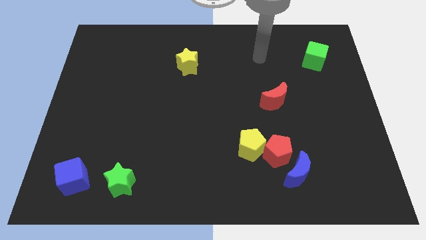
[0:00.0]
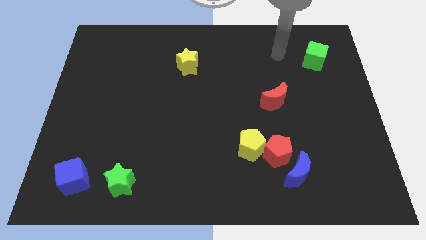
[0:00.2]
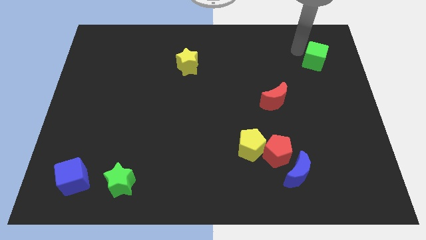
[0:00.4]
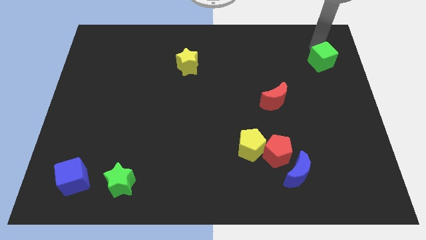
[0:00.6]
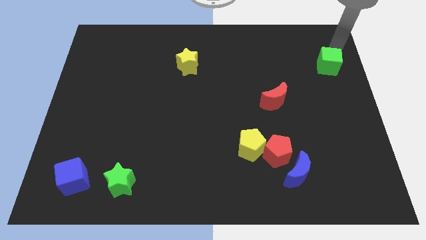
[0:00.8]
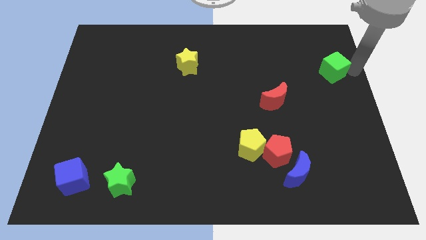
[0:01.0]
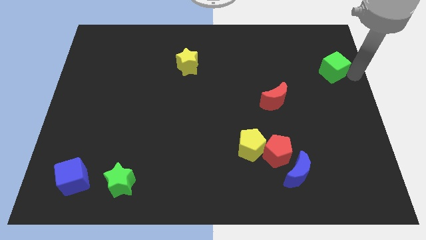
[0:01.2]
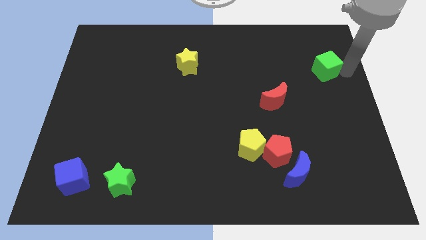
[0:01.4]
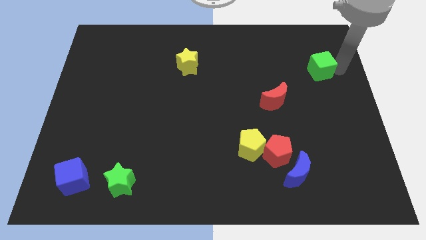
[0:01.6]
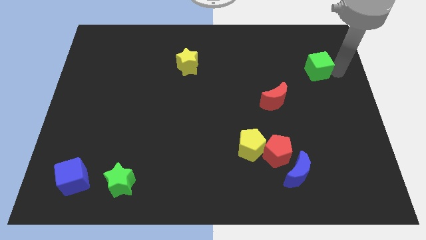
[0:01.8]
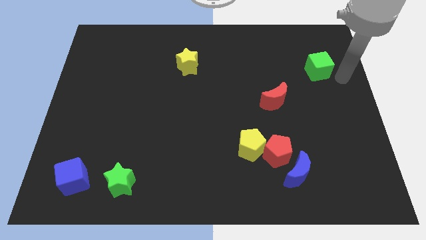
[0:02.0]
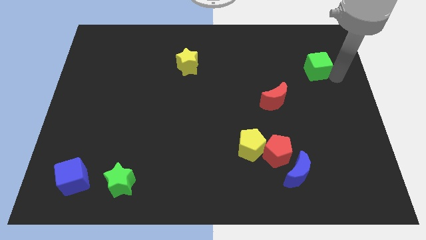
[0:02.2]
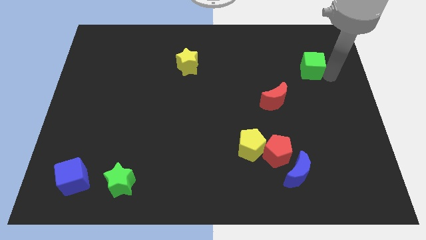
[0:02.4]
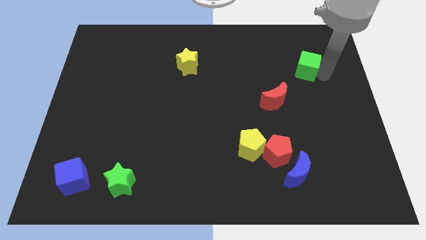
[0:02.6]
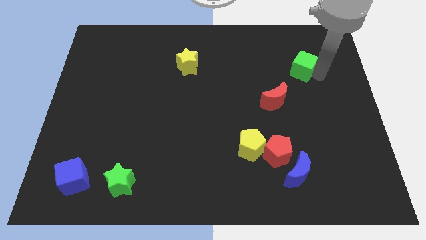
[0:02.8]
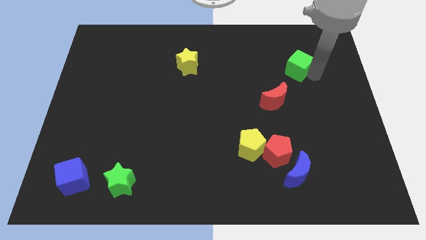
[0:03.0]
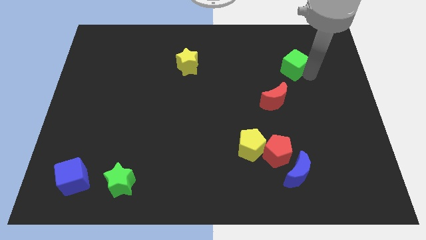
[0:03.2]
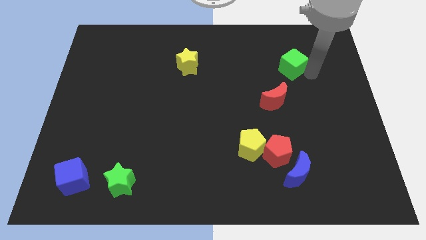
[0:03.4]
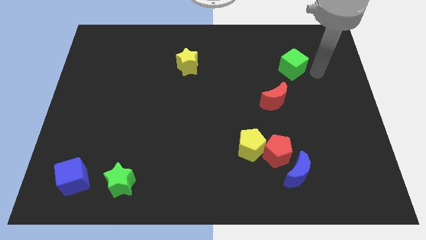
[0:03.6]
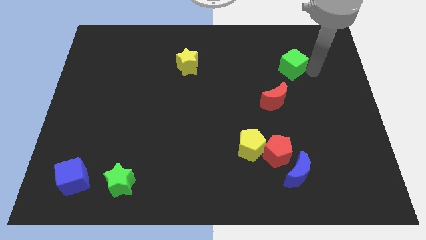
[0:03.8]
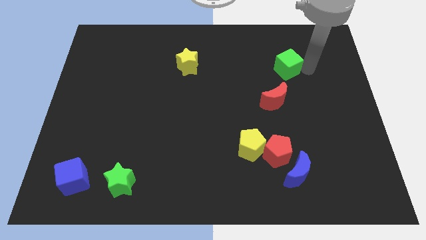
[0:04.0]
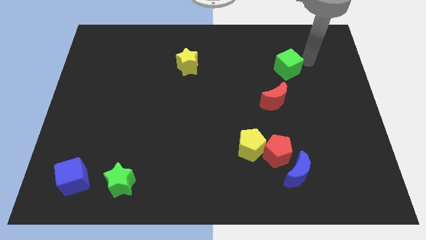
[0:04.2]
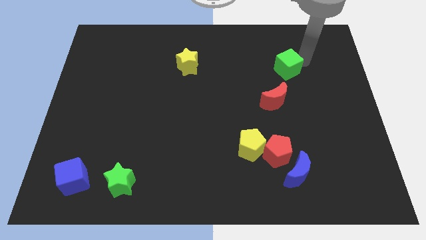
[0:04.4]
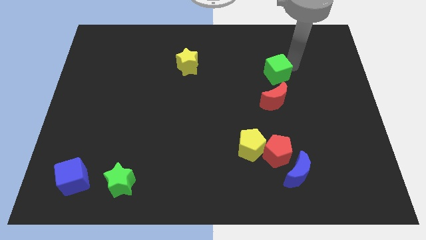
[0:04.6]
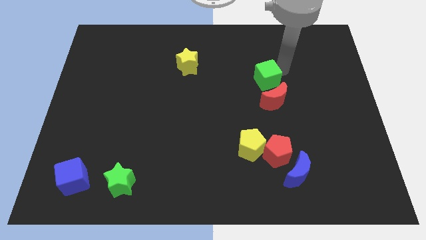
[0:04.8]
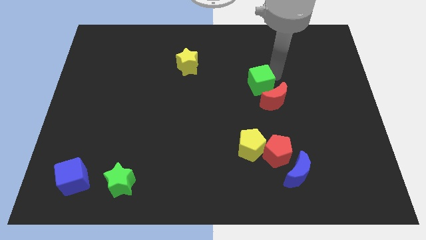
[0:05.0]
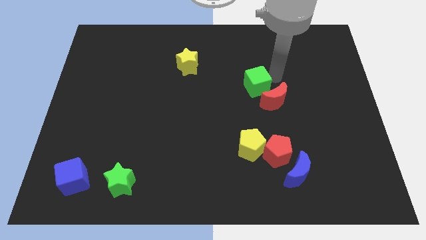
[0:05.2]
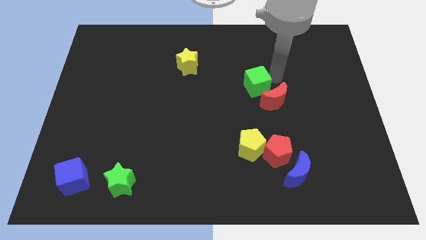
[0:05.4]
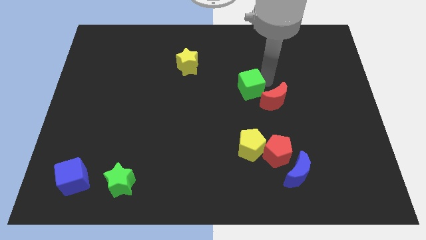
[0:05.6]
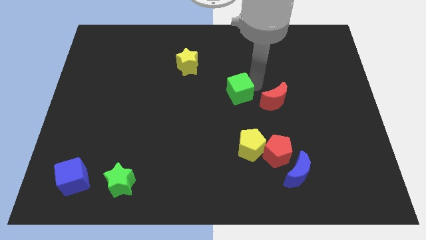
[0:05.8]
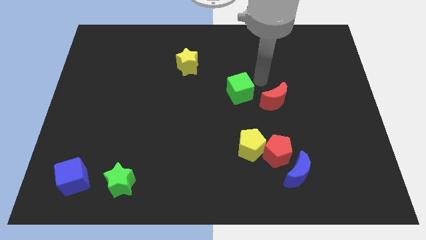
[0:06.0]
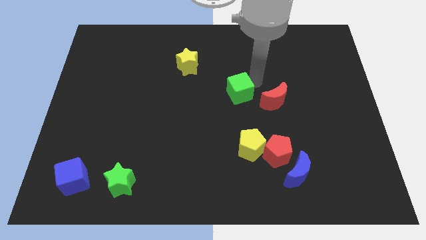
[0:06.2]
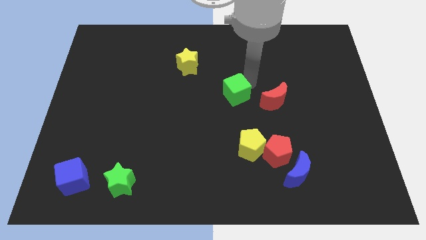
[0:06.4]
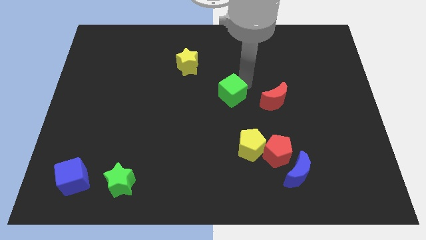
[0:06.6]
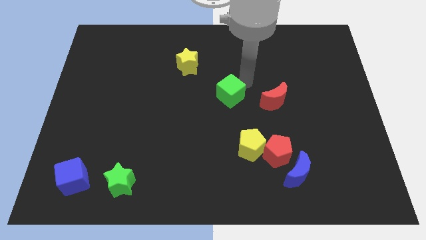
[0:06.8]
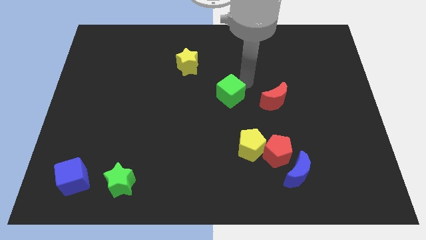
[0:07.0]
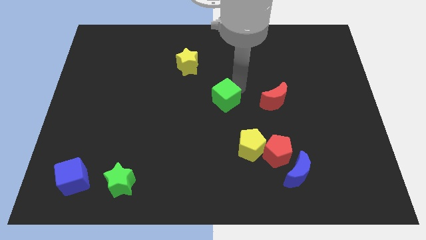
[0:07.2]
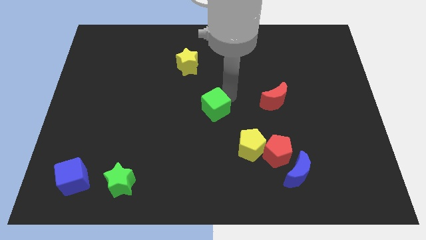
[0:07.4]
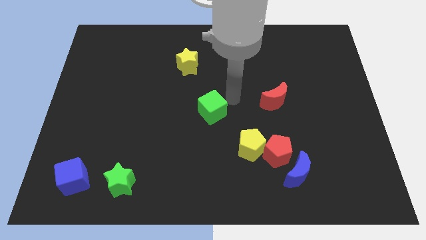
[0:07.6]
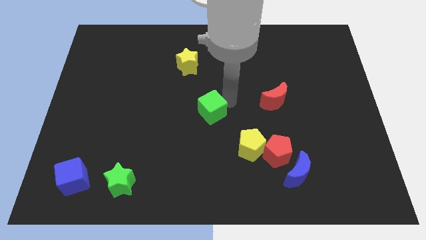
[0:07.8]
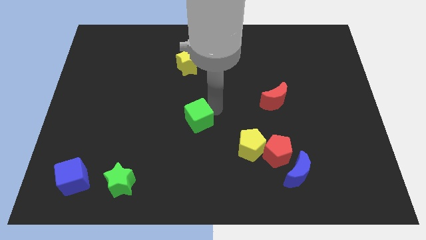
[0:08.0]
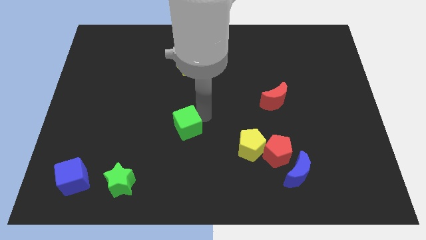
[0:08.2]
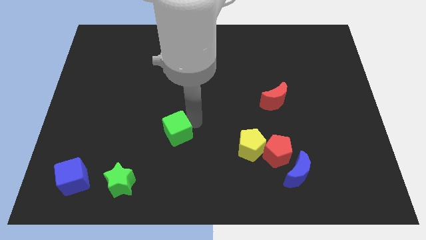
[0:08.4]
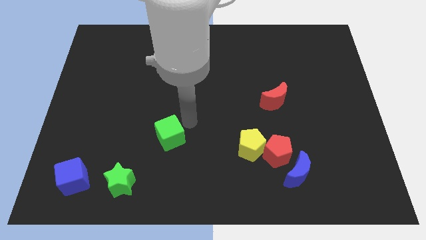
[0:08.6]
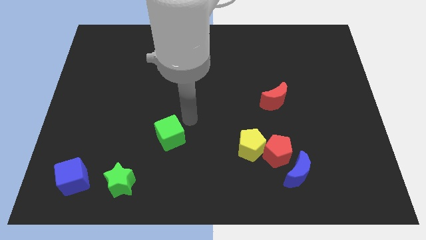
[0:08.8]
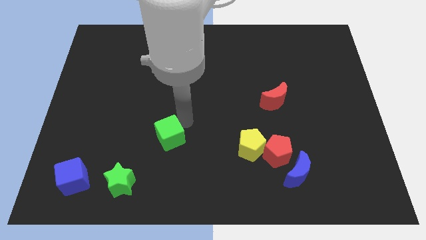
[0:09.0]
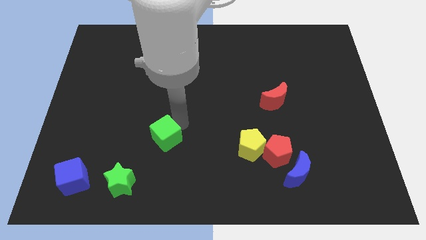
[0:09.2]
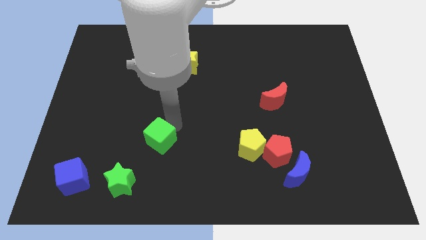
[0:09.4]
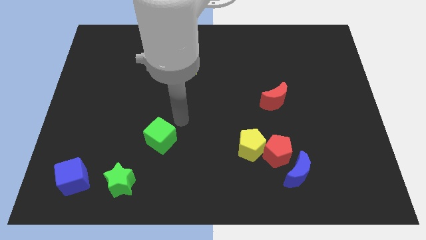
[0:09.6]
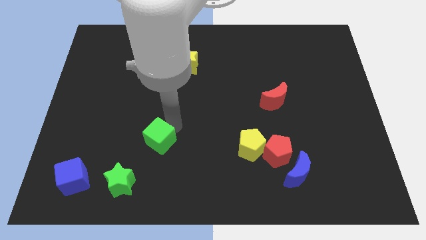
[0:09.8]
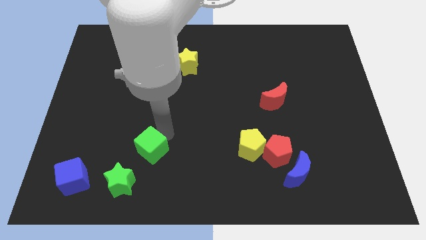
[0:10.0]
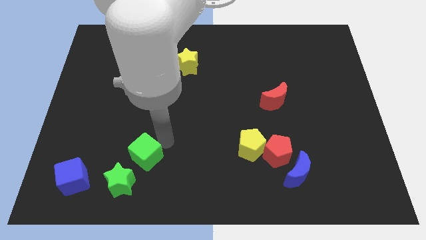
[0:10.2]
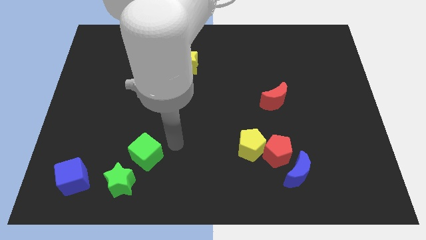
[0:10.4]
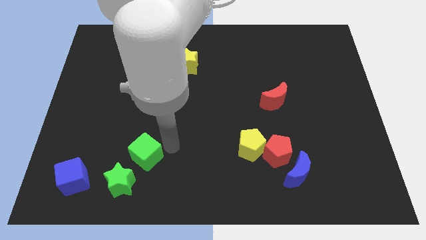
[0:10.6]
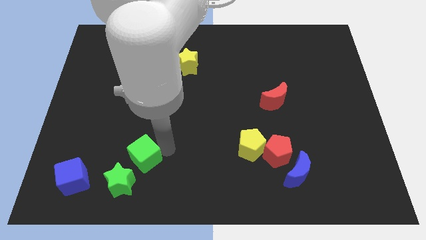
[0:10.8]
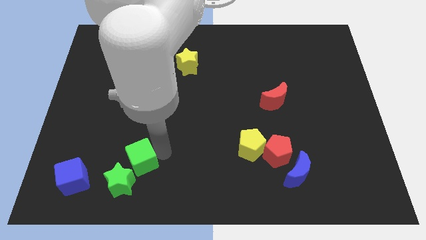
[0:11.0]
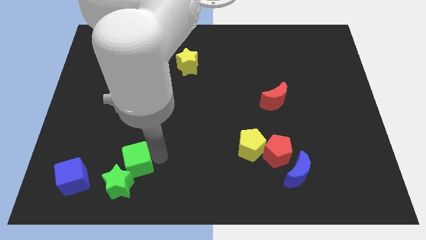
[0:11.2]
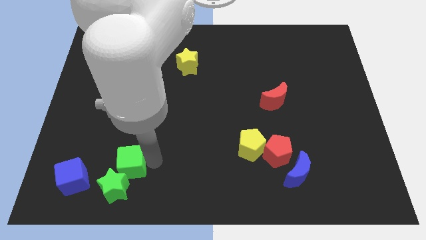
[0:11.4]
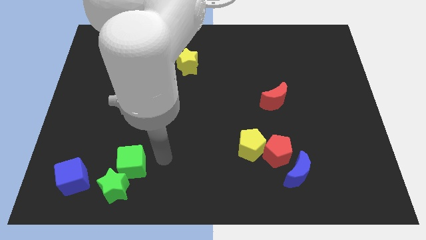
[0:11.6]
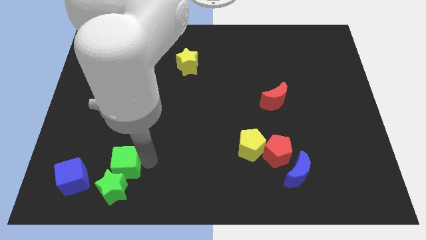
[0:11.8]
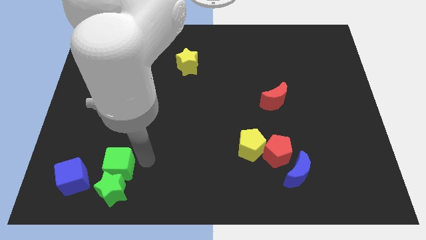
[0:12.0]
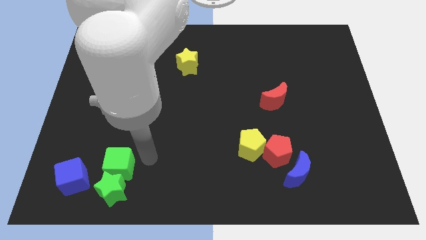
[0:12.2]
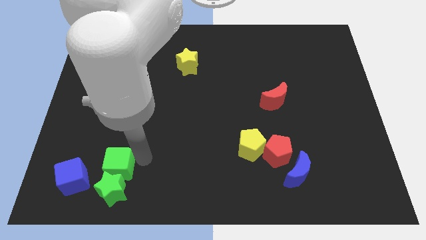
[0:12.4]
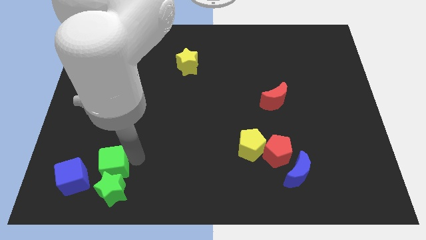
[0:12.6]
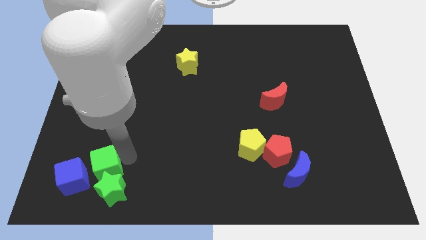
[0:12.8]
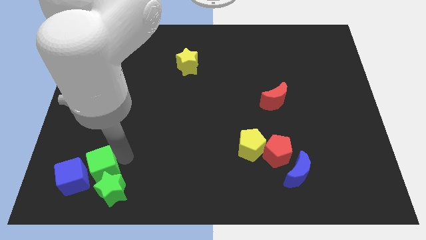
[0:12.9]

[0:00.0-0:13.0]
move the green cube close to the blue cube
